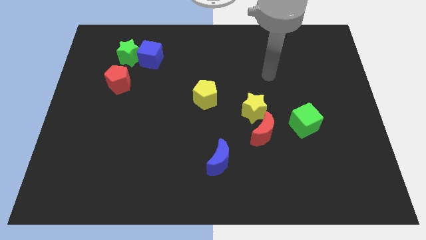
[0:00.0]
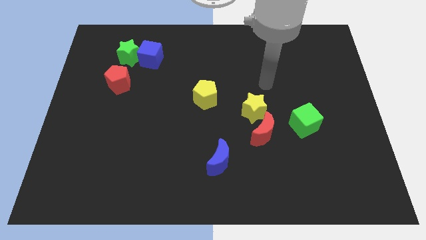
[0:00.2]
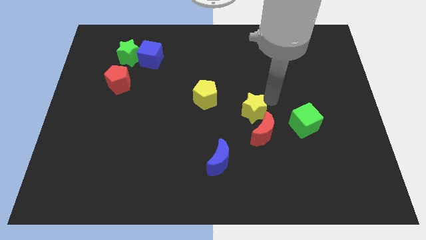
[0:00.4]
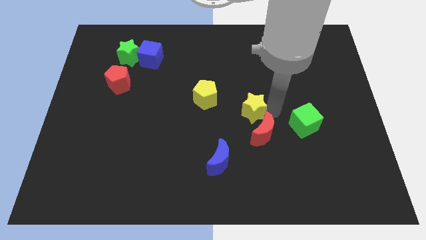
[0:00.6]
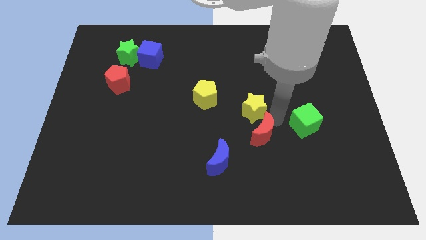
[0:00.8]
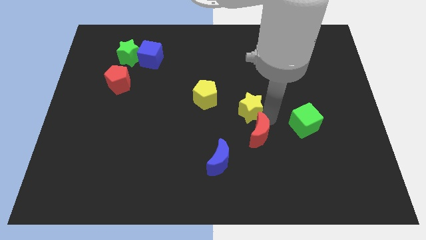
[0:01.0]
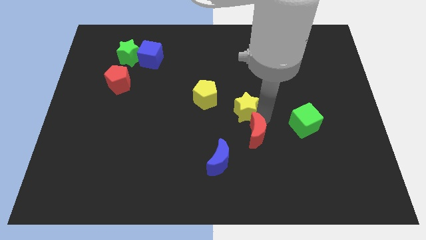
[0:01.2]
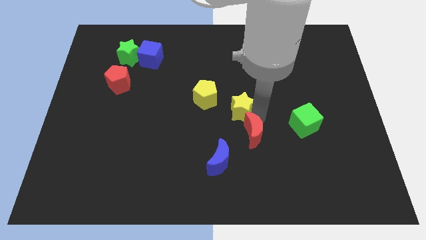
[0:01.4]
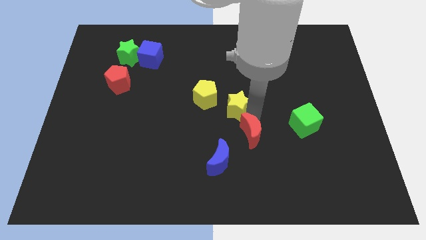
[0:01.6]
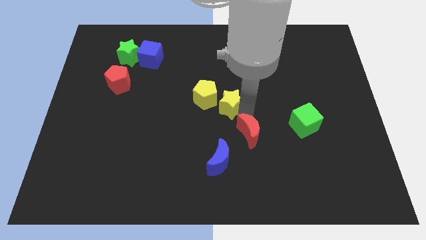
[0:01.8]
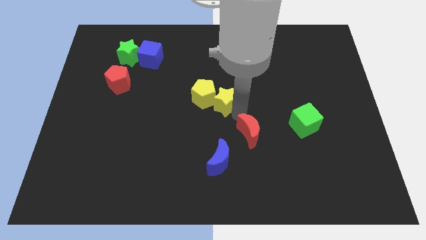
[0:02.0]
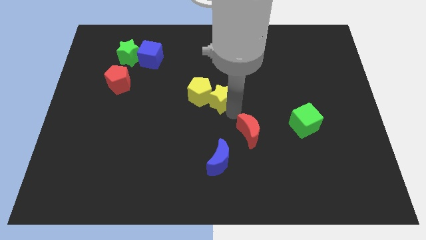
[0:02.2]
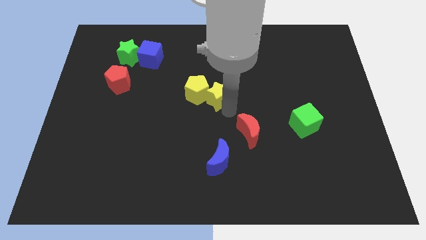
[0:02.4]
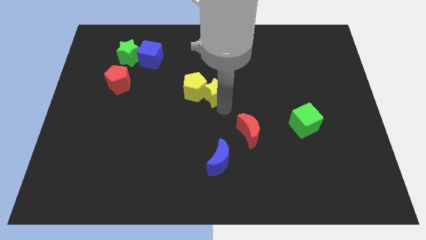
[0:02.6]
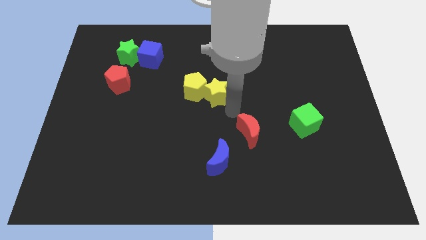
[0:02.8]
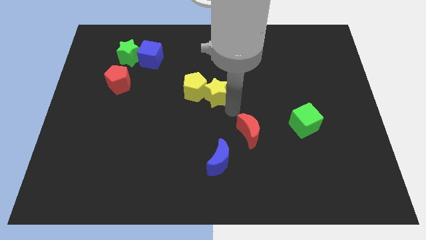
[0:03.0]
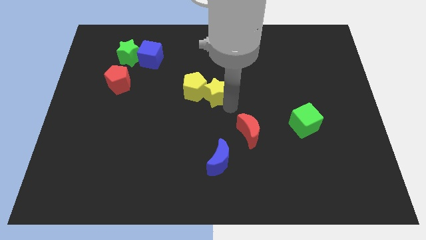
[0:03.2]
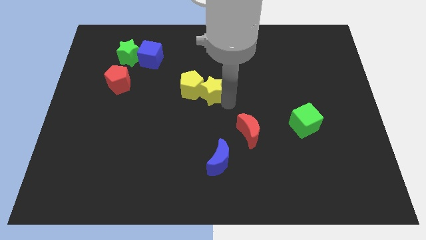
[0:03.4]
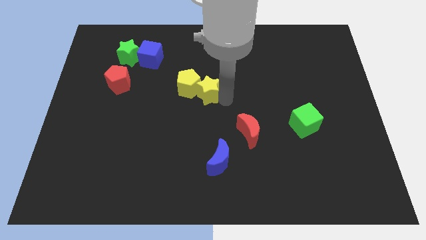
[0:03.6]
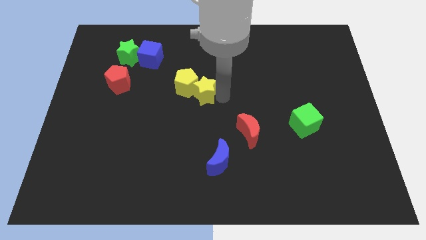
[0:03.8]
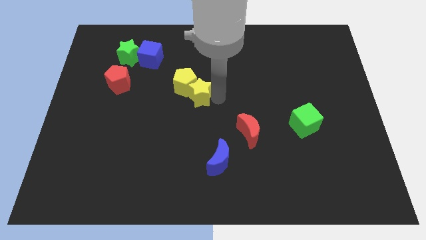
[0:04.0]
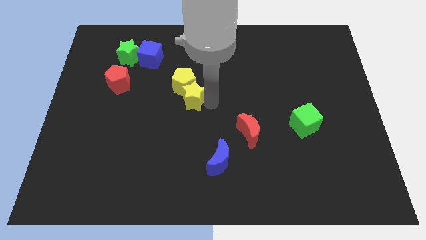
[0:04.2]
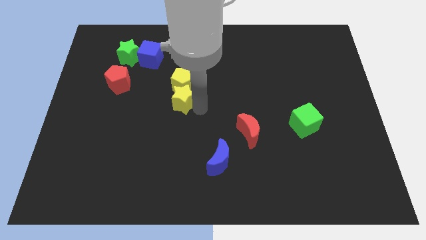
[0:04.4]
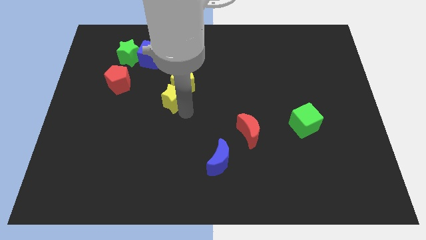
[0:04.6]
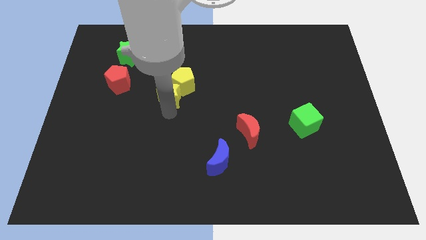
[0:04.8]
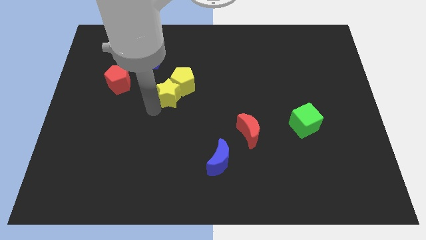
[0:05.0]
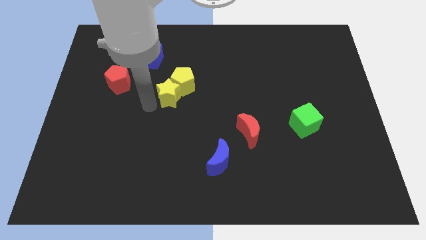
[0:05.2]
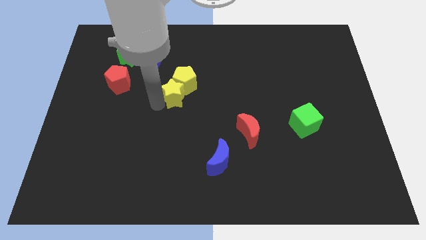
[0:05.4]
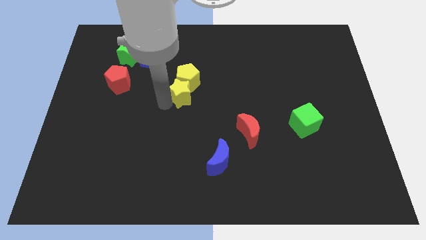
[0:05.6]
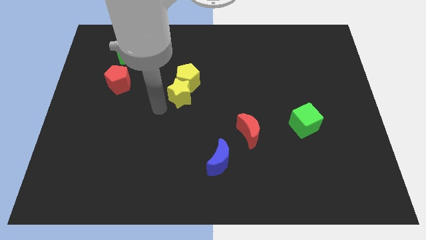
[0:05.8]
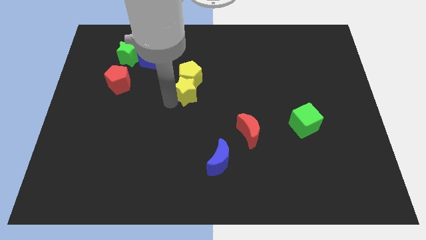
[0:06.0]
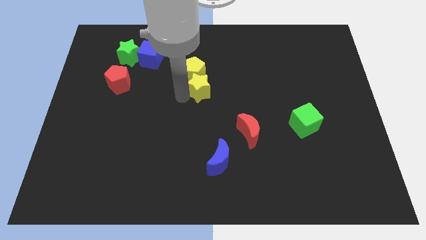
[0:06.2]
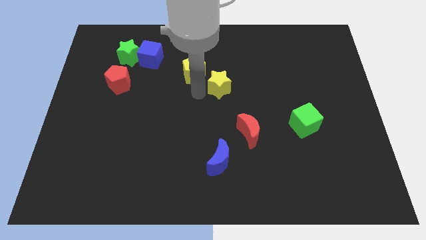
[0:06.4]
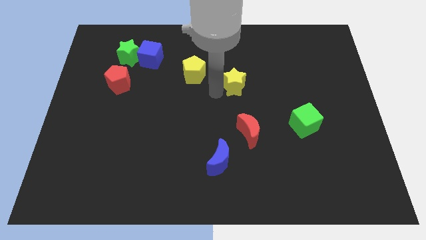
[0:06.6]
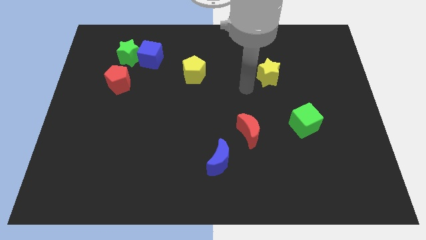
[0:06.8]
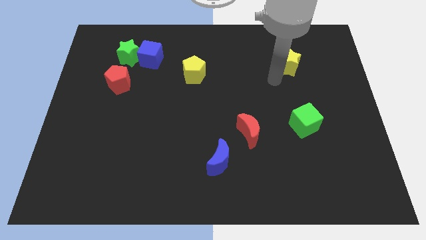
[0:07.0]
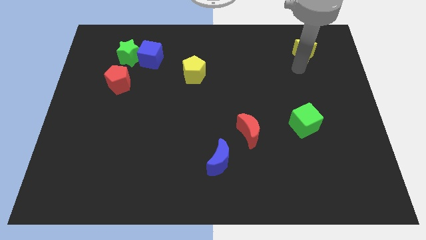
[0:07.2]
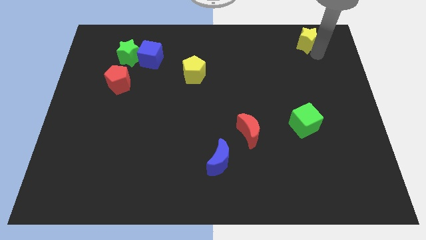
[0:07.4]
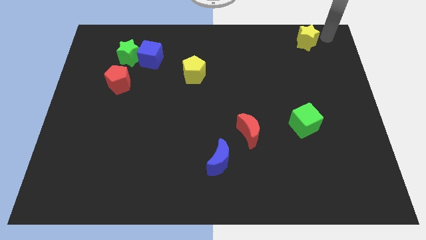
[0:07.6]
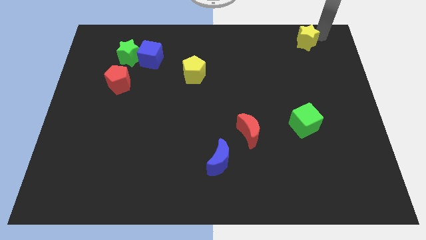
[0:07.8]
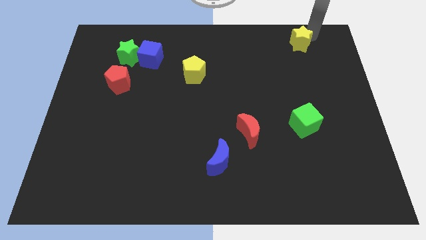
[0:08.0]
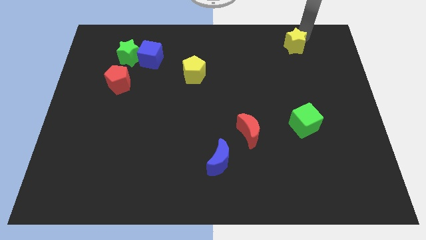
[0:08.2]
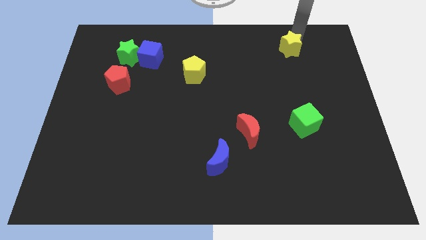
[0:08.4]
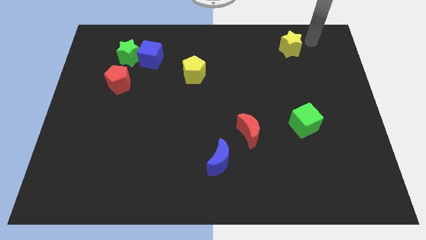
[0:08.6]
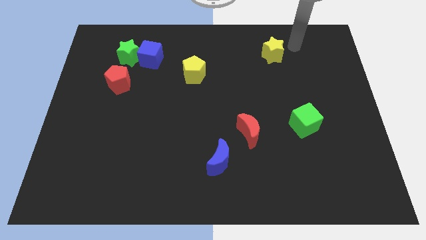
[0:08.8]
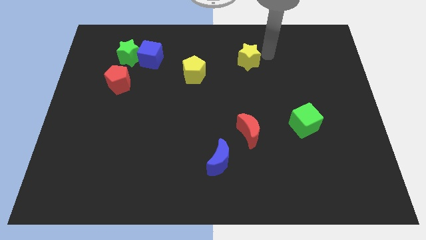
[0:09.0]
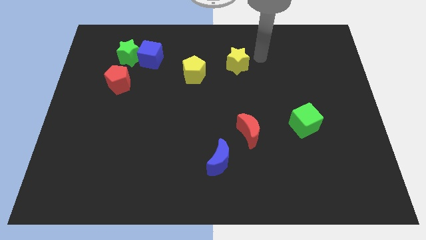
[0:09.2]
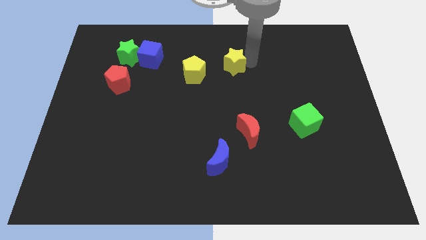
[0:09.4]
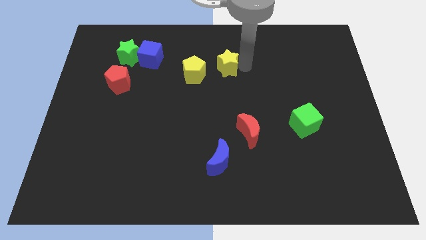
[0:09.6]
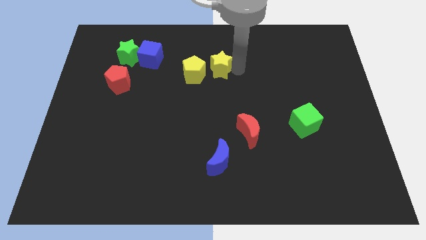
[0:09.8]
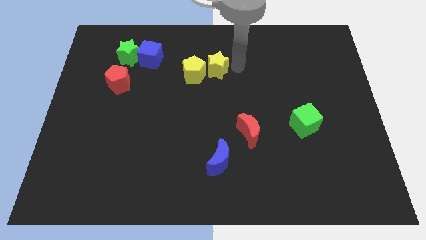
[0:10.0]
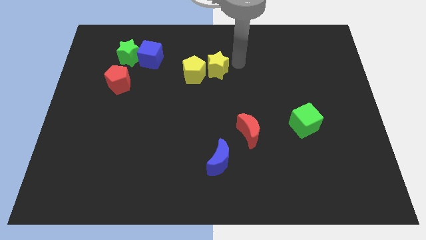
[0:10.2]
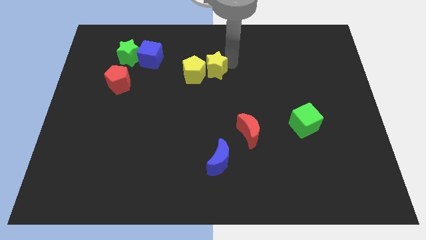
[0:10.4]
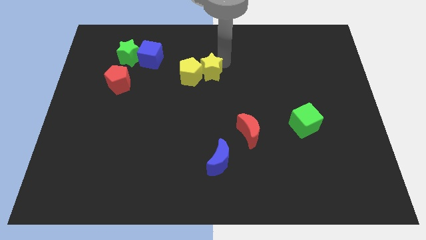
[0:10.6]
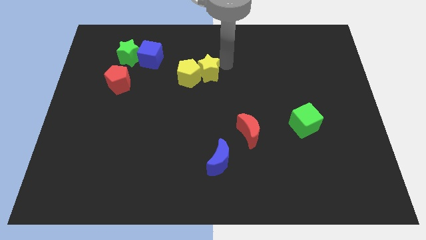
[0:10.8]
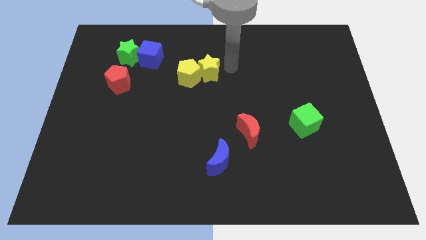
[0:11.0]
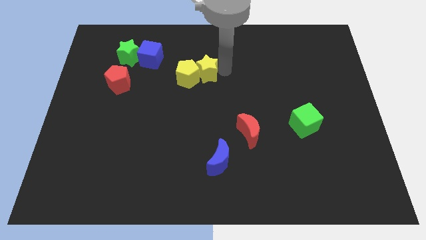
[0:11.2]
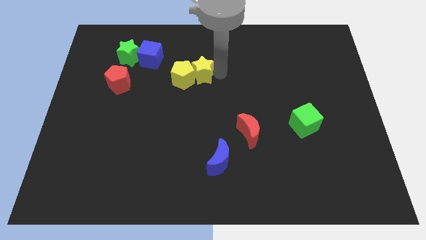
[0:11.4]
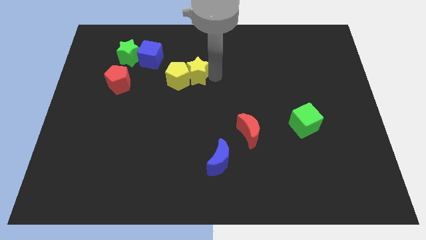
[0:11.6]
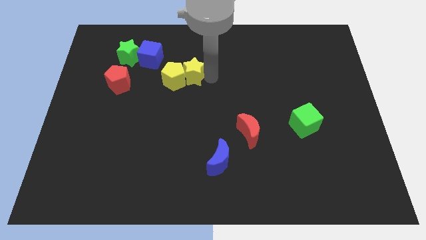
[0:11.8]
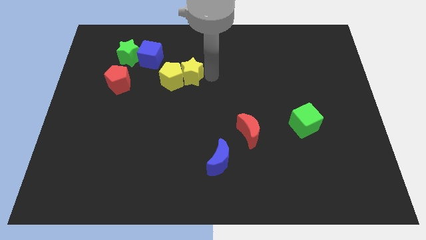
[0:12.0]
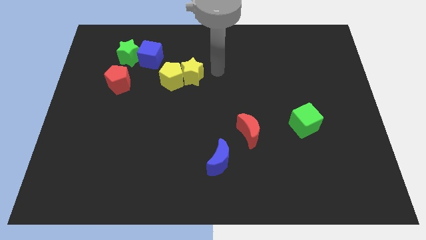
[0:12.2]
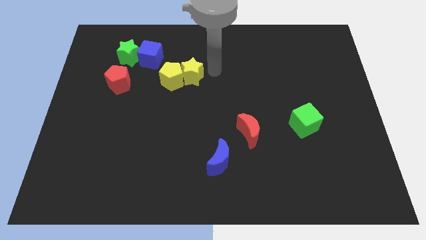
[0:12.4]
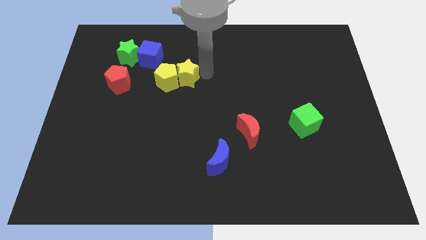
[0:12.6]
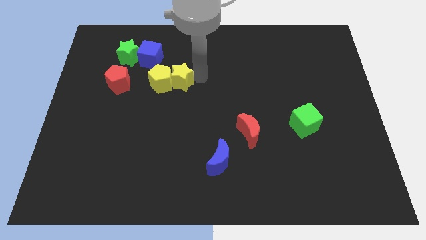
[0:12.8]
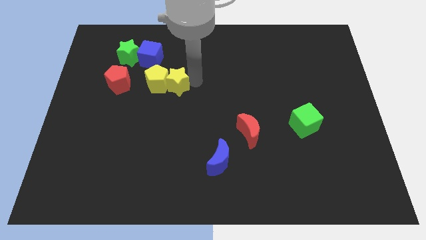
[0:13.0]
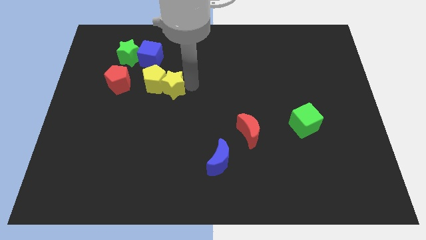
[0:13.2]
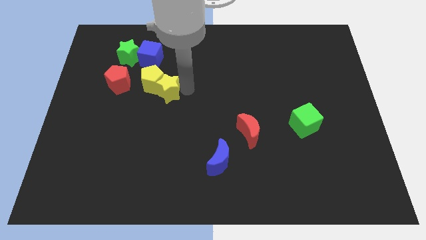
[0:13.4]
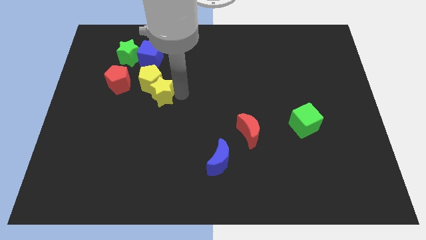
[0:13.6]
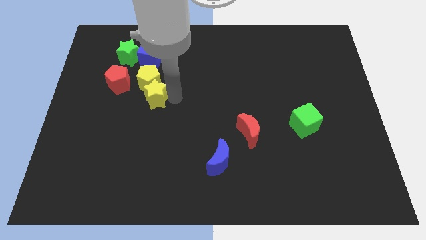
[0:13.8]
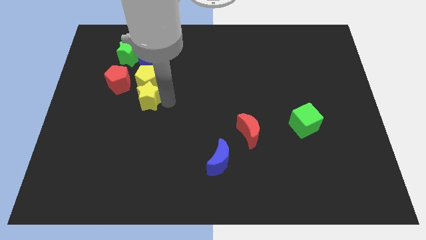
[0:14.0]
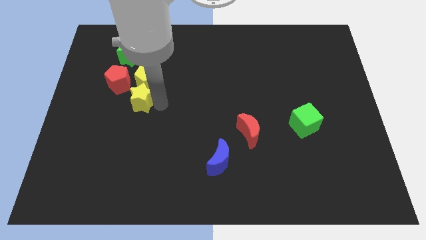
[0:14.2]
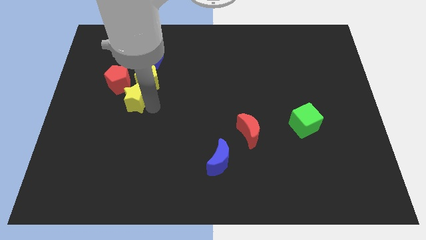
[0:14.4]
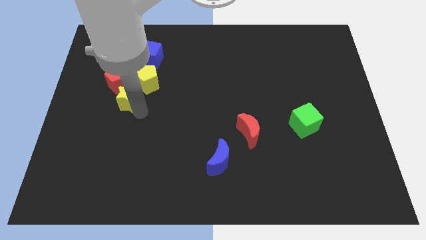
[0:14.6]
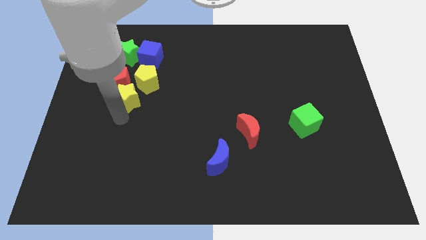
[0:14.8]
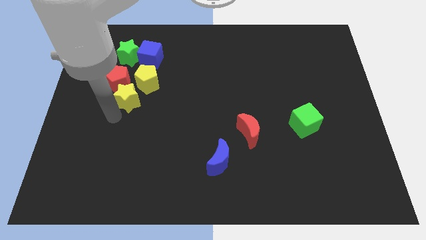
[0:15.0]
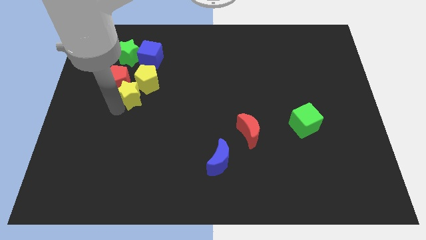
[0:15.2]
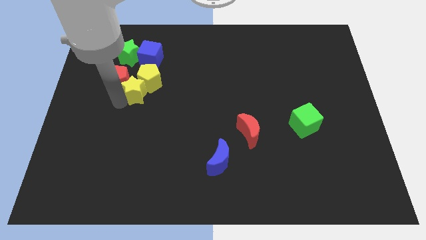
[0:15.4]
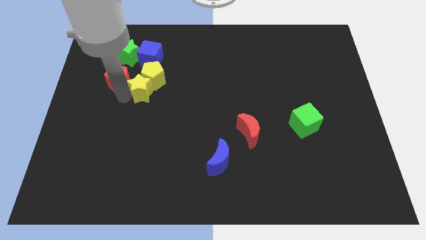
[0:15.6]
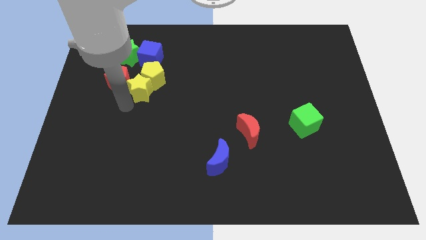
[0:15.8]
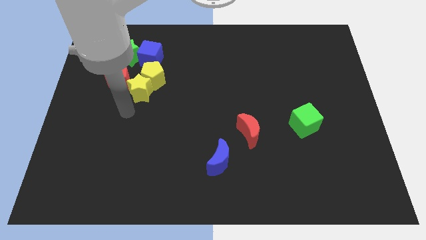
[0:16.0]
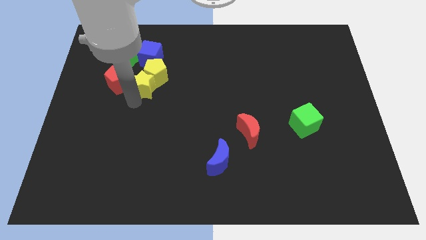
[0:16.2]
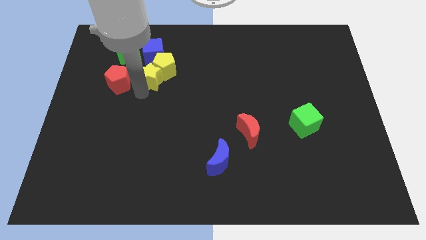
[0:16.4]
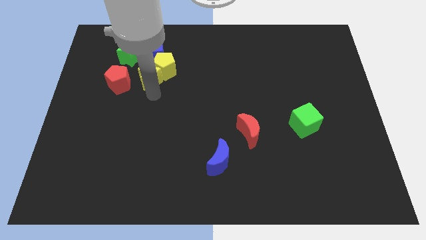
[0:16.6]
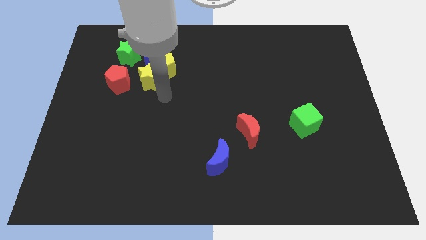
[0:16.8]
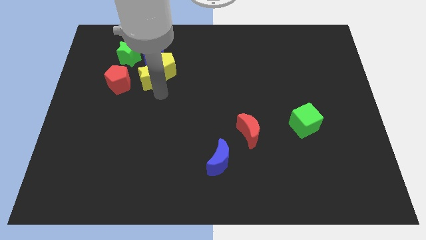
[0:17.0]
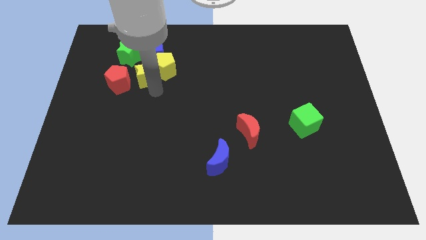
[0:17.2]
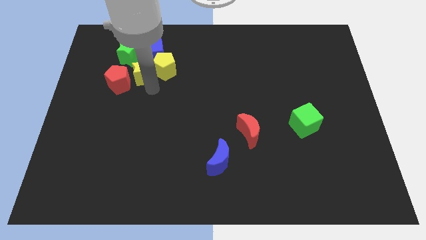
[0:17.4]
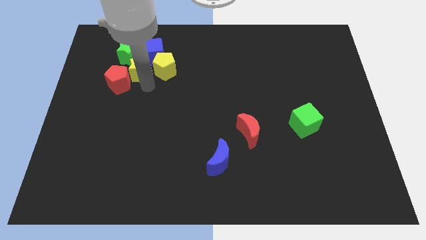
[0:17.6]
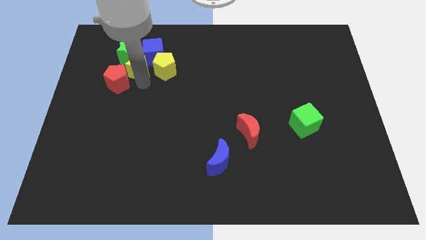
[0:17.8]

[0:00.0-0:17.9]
put the yellow star next to the green star
